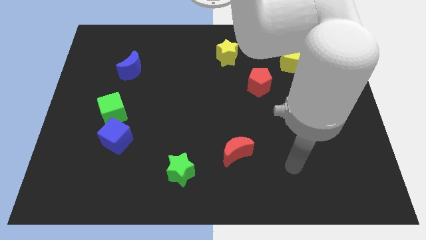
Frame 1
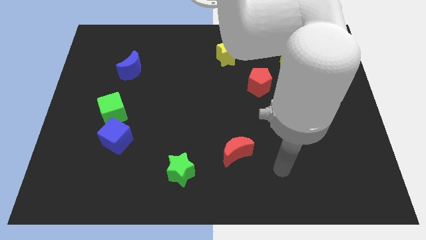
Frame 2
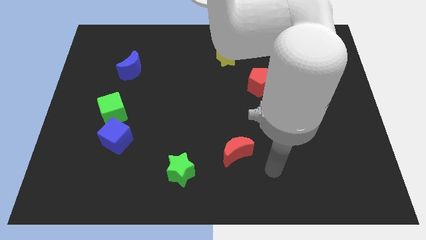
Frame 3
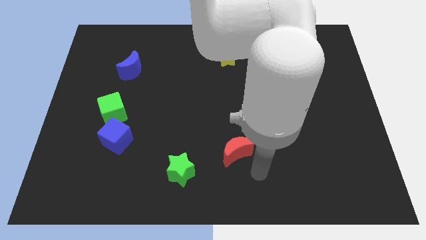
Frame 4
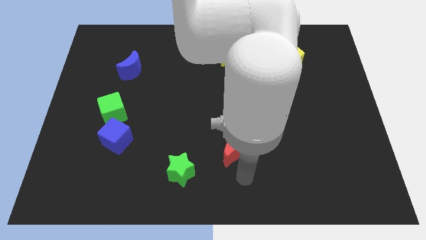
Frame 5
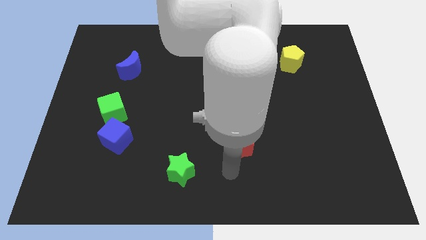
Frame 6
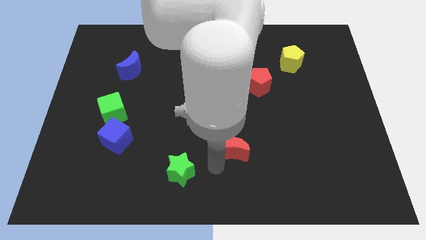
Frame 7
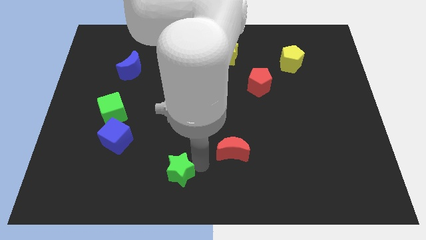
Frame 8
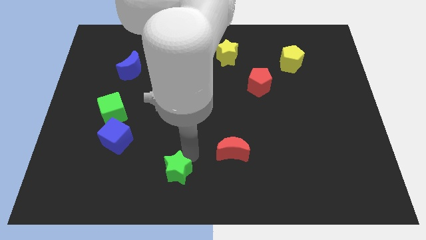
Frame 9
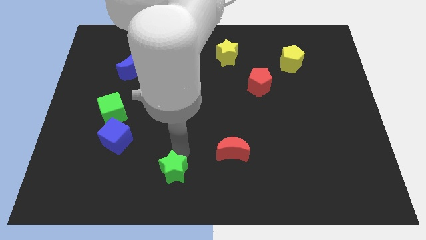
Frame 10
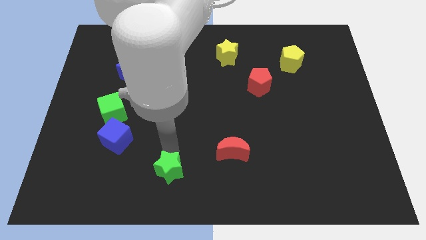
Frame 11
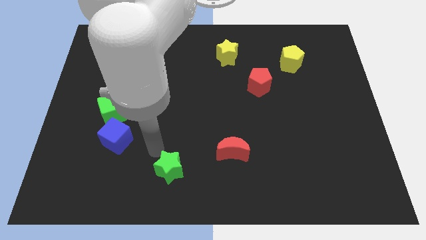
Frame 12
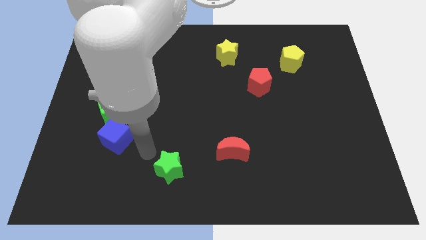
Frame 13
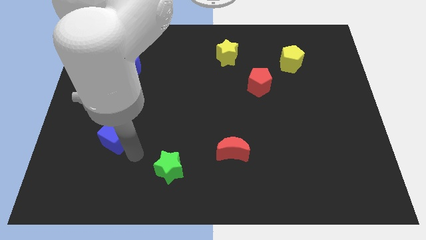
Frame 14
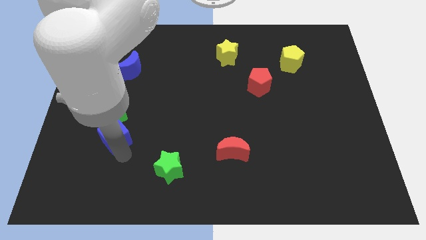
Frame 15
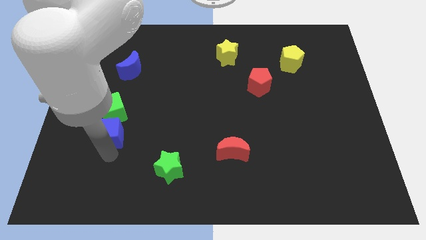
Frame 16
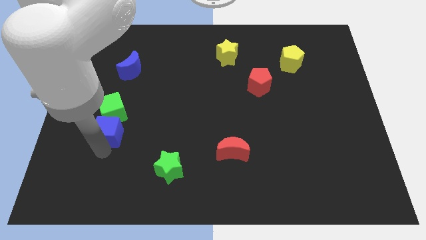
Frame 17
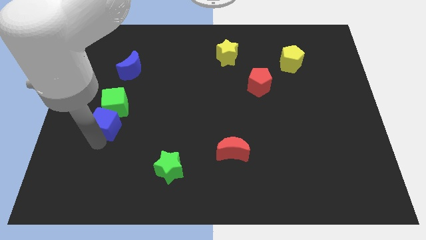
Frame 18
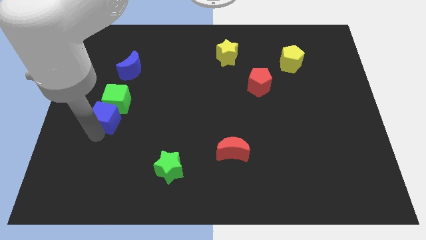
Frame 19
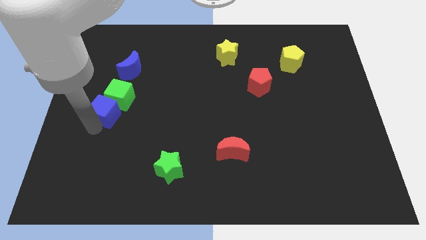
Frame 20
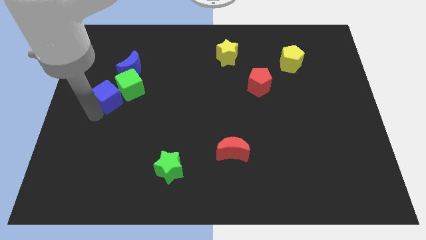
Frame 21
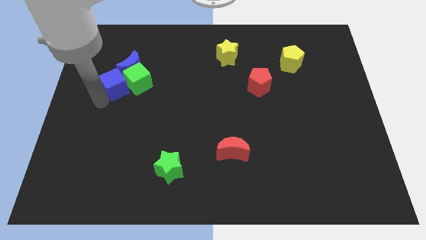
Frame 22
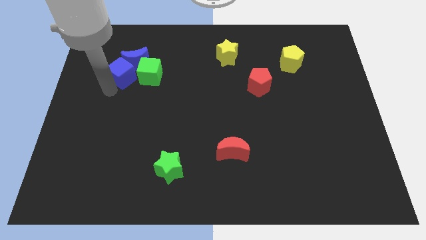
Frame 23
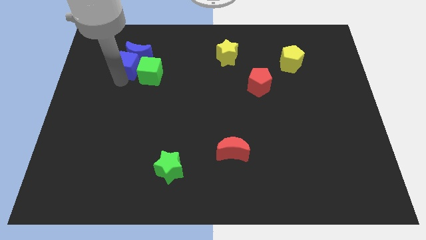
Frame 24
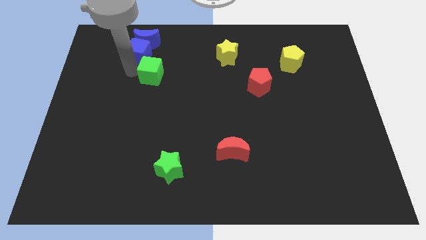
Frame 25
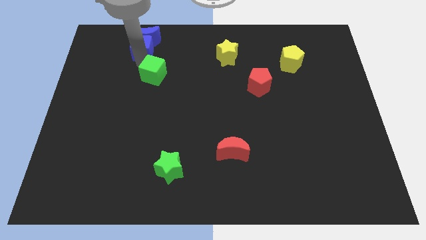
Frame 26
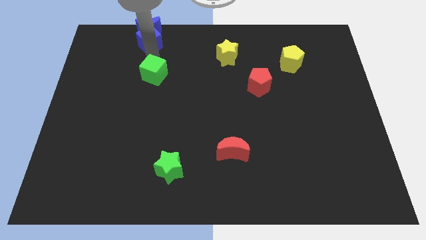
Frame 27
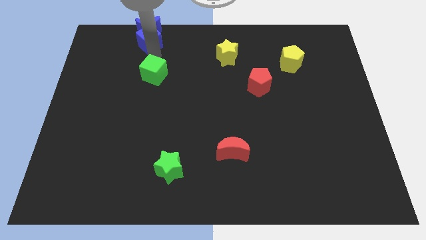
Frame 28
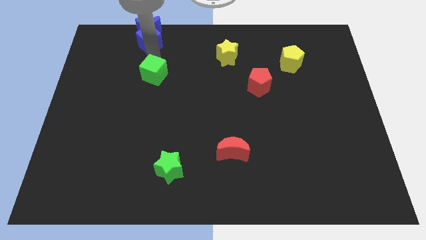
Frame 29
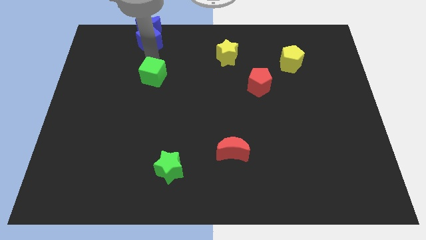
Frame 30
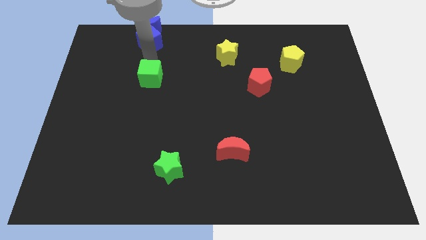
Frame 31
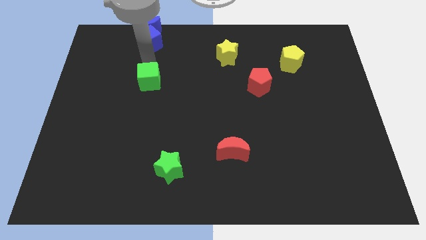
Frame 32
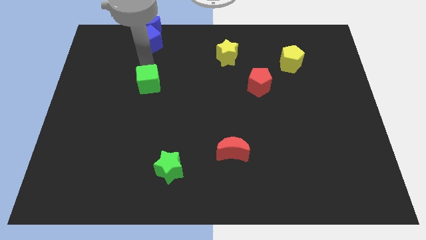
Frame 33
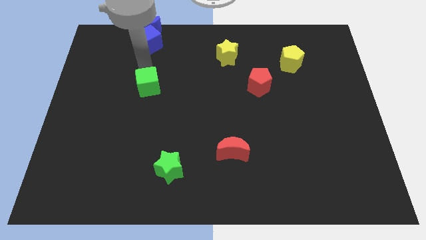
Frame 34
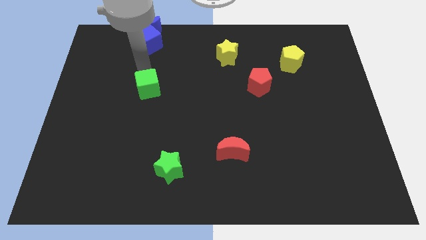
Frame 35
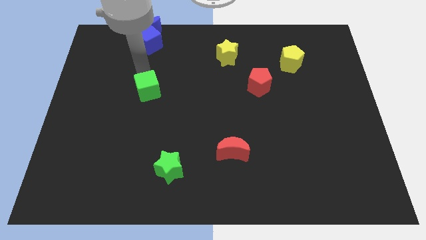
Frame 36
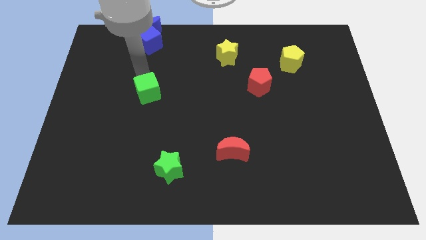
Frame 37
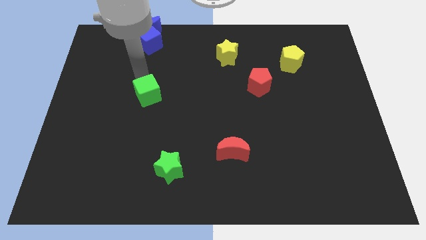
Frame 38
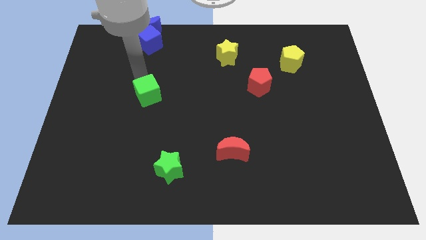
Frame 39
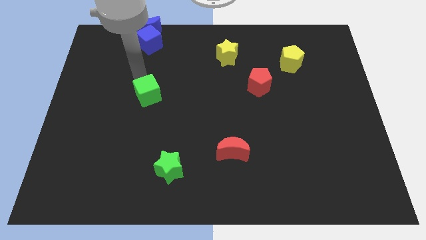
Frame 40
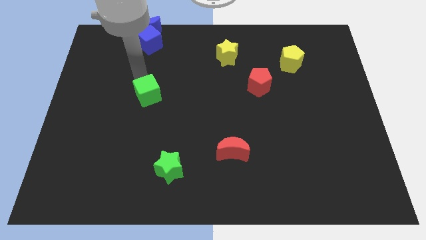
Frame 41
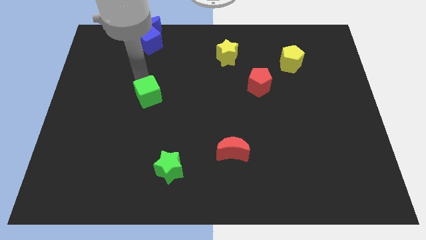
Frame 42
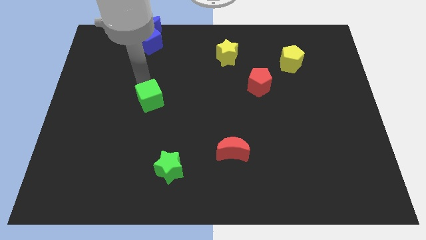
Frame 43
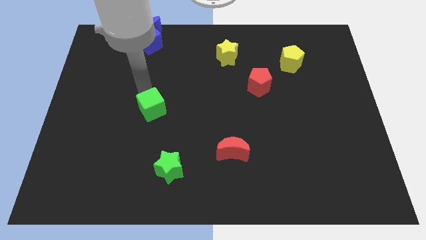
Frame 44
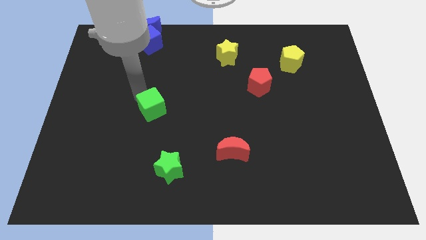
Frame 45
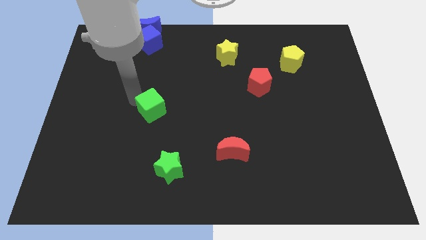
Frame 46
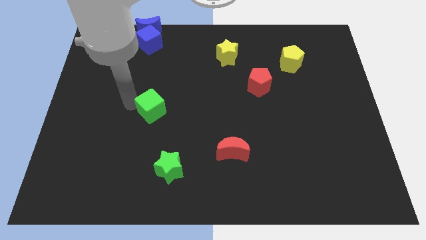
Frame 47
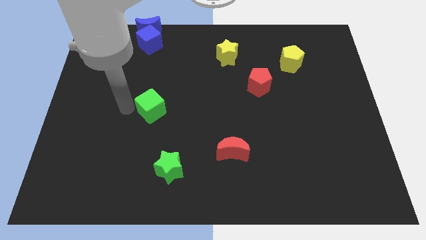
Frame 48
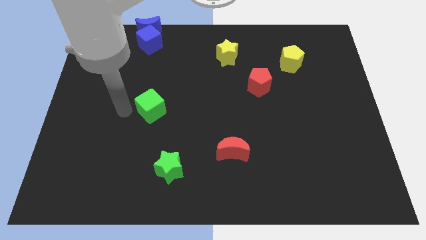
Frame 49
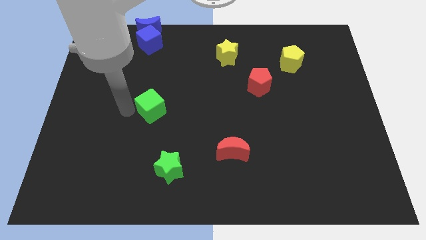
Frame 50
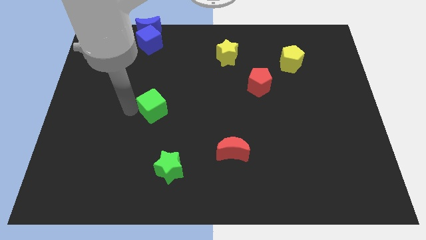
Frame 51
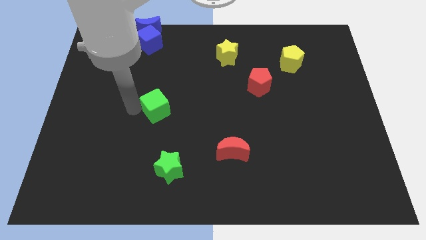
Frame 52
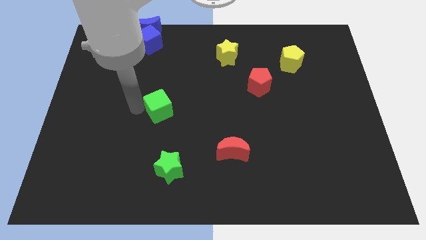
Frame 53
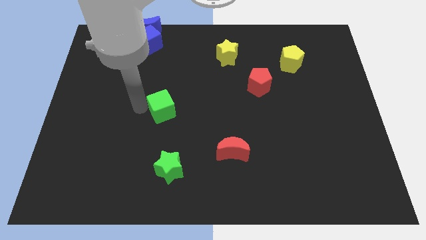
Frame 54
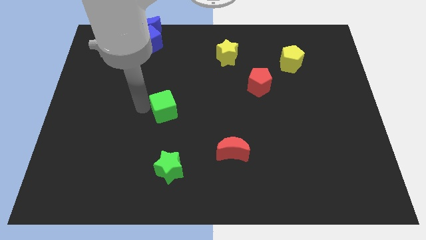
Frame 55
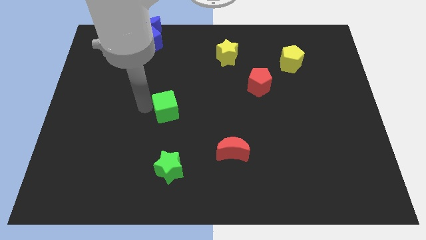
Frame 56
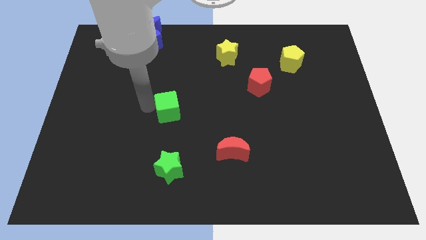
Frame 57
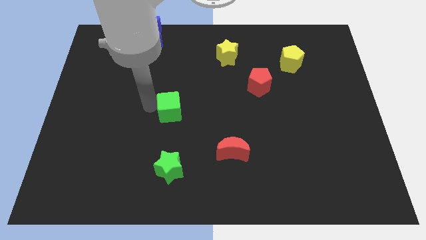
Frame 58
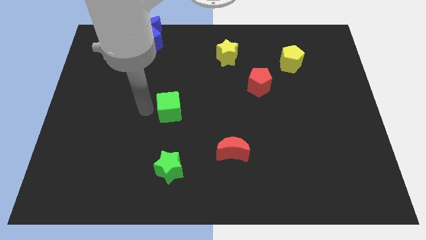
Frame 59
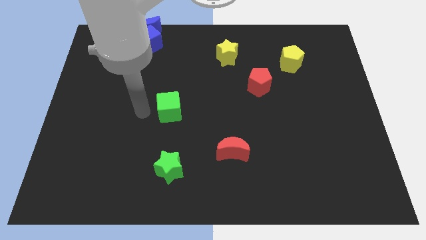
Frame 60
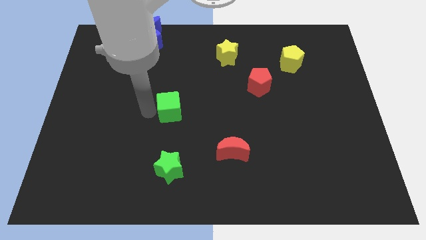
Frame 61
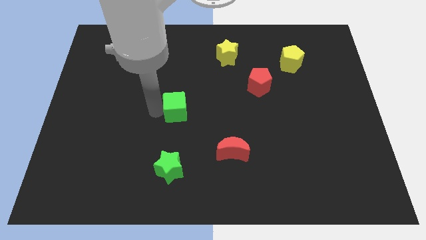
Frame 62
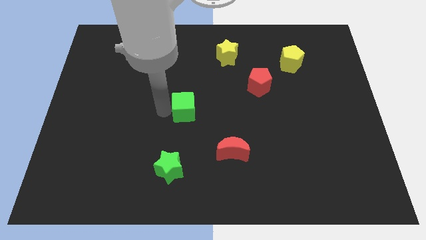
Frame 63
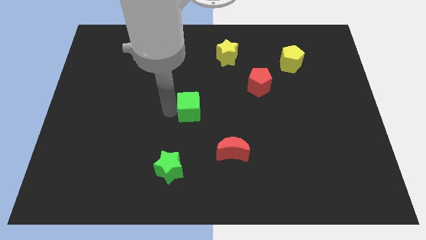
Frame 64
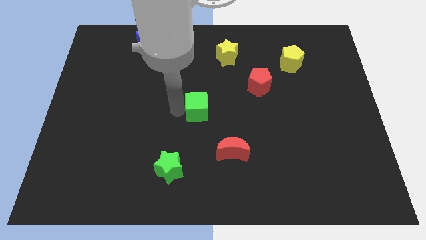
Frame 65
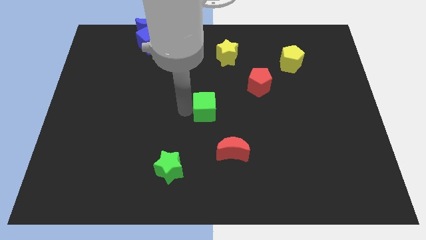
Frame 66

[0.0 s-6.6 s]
push the green cube to the right

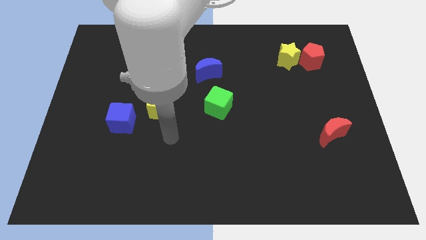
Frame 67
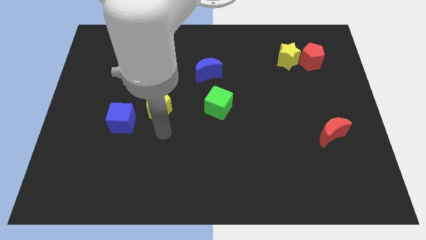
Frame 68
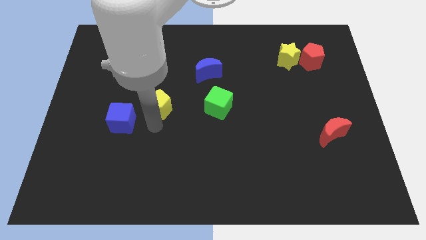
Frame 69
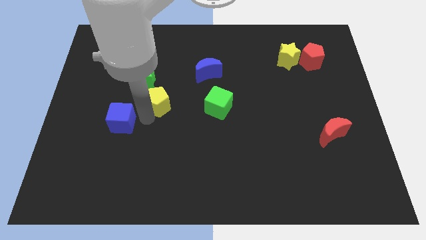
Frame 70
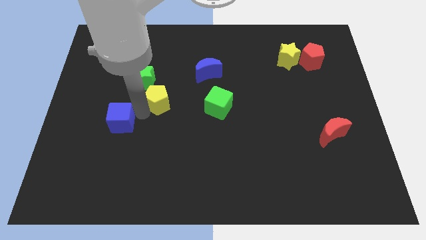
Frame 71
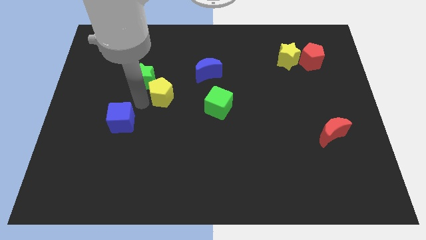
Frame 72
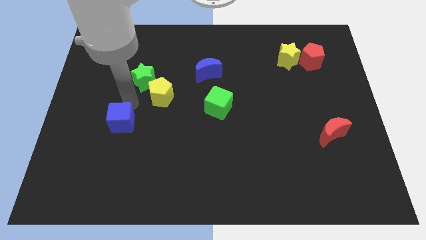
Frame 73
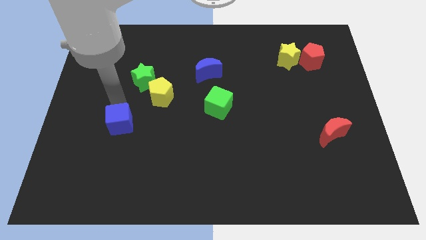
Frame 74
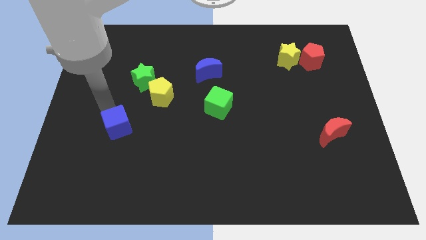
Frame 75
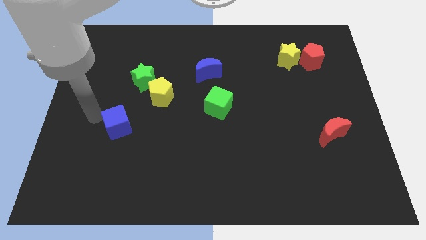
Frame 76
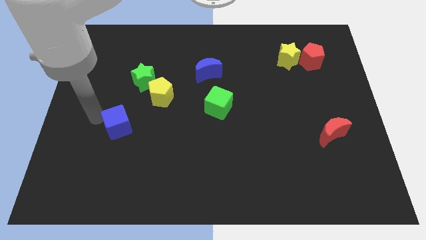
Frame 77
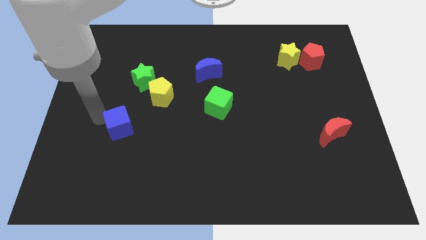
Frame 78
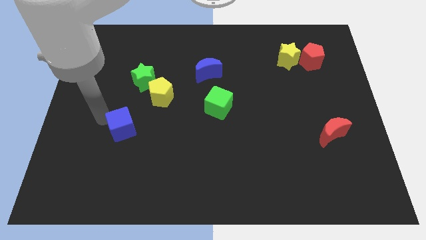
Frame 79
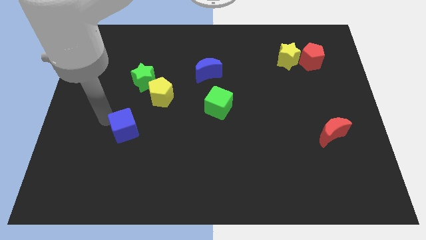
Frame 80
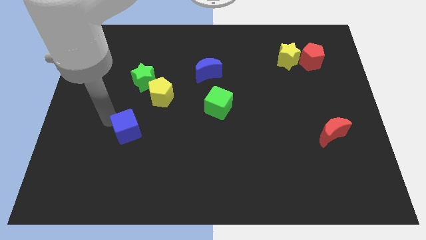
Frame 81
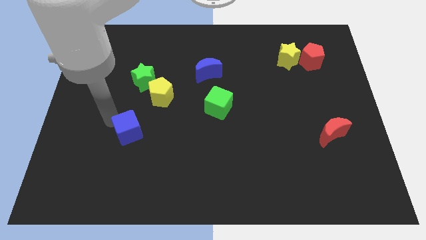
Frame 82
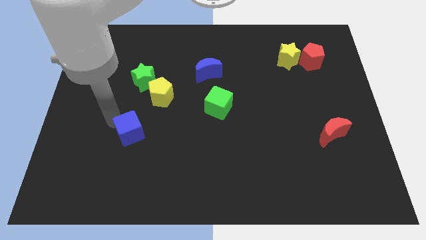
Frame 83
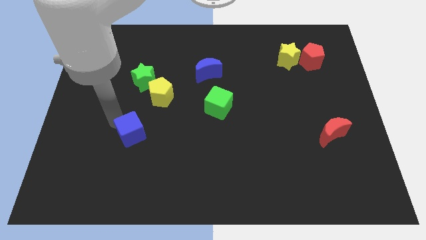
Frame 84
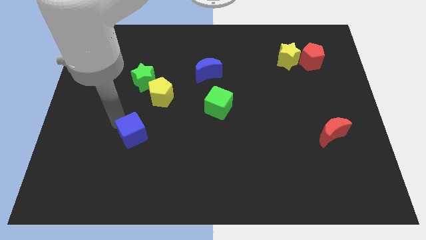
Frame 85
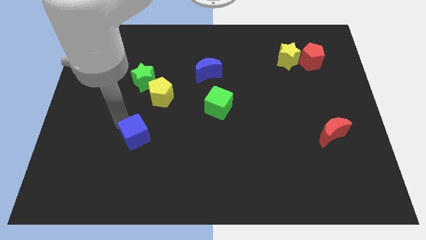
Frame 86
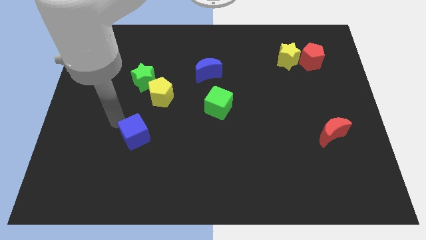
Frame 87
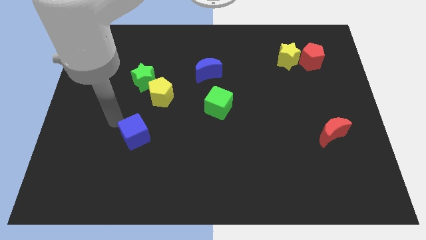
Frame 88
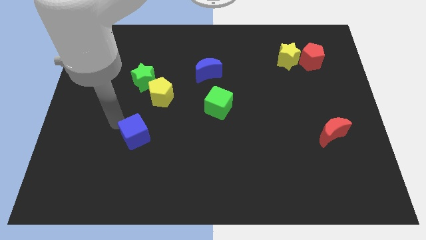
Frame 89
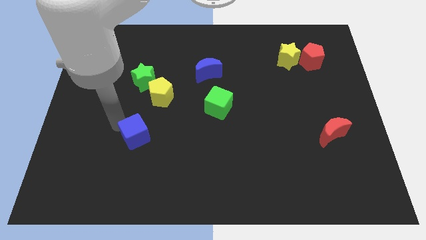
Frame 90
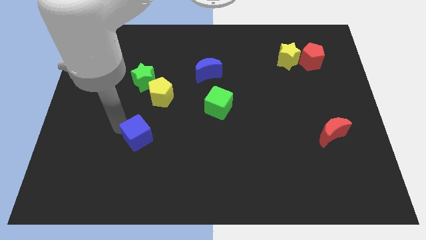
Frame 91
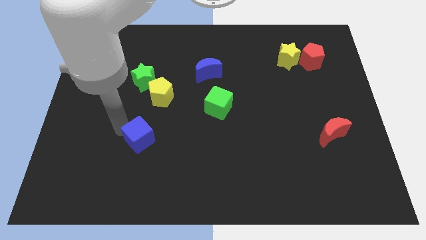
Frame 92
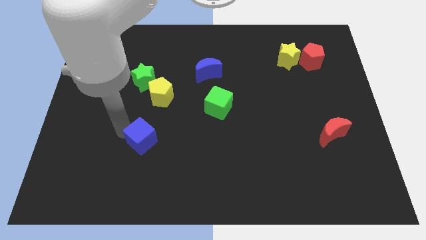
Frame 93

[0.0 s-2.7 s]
move the blue cube down and then right somewhat
